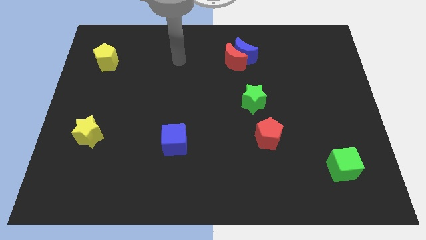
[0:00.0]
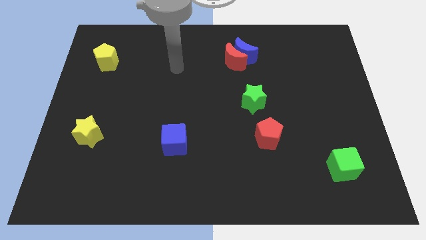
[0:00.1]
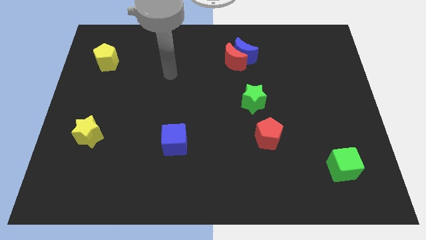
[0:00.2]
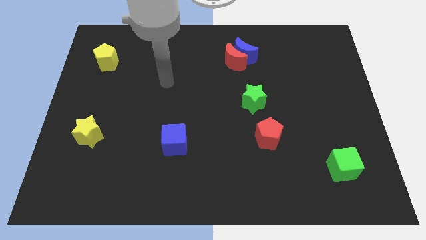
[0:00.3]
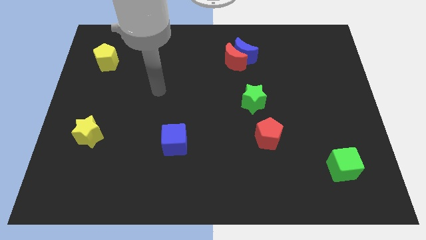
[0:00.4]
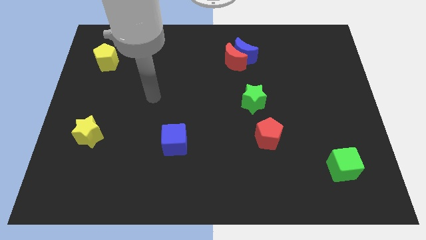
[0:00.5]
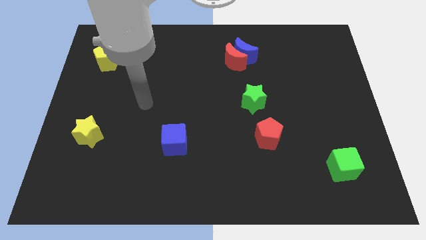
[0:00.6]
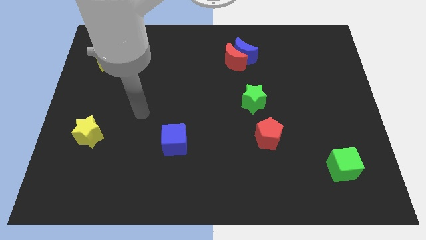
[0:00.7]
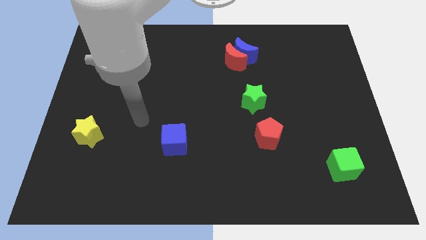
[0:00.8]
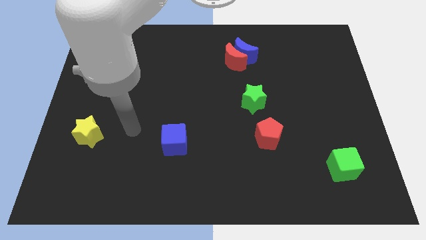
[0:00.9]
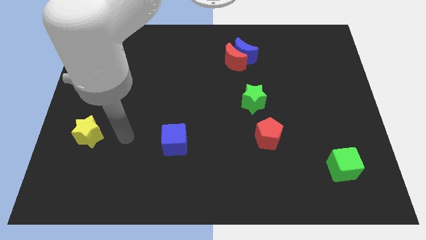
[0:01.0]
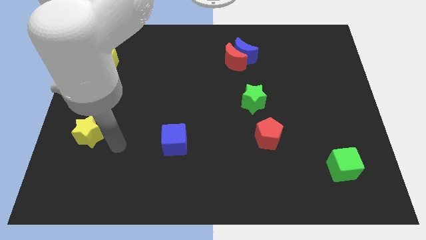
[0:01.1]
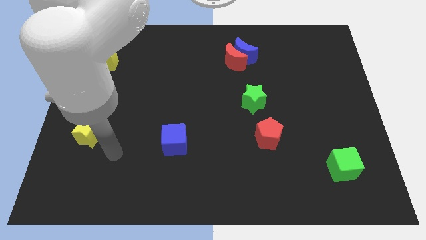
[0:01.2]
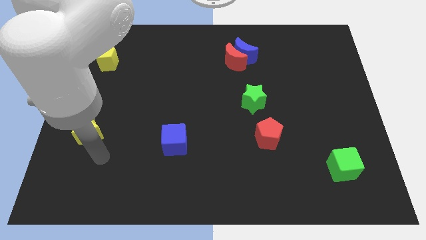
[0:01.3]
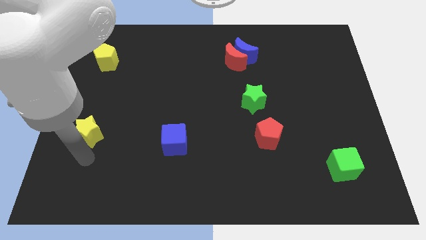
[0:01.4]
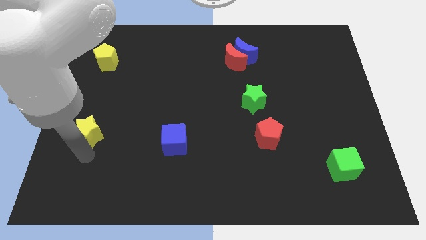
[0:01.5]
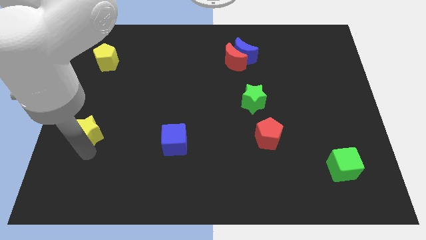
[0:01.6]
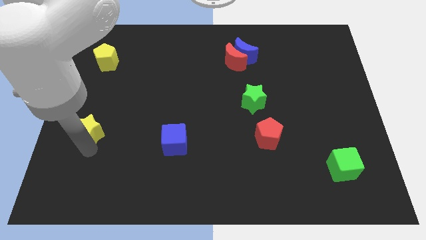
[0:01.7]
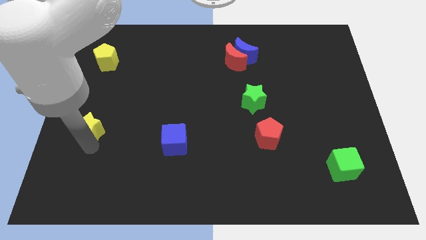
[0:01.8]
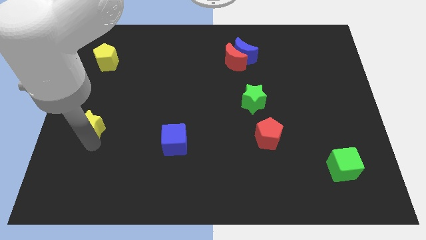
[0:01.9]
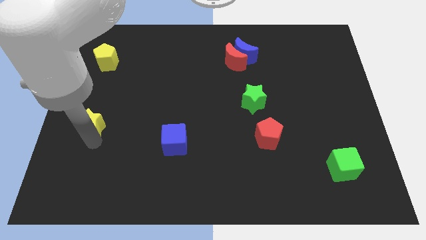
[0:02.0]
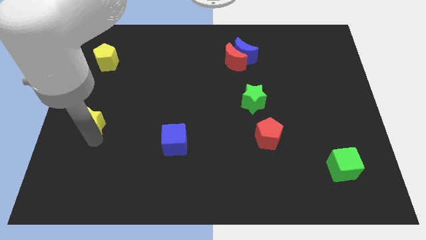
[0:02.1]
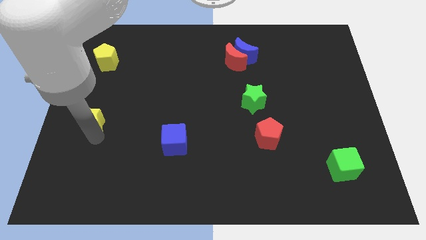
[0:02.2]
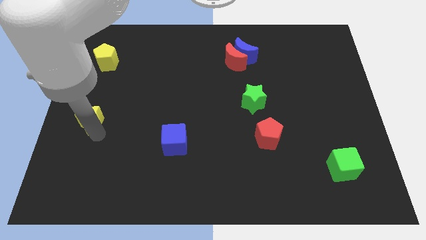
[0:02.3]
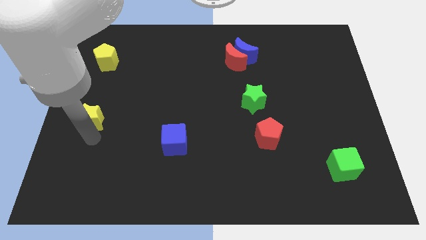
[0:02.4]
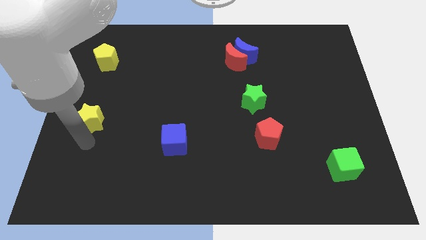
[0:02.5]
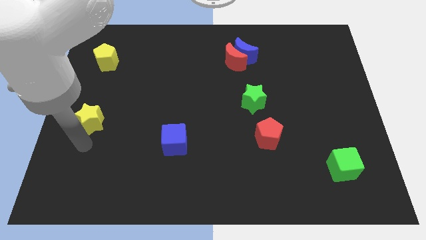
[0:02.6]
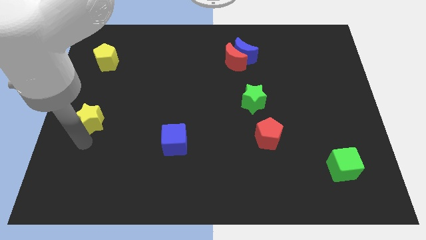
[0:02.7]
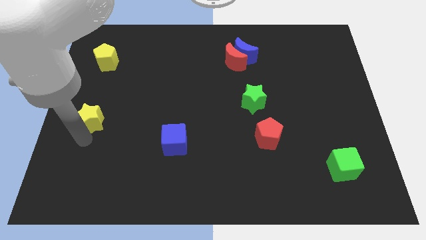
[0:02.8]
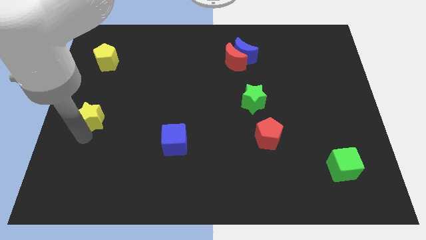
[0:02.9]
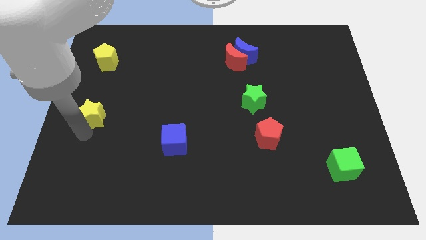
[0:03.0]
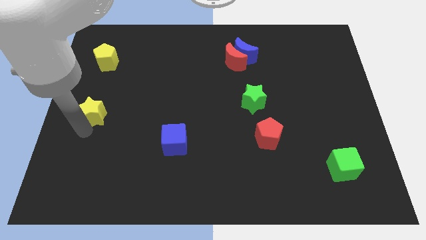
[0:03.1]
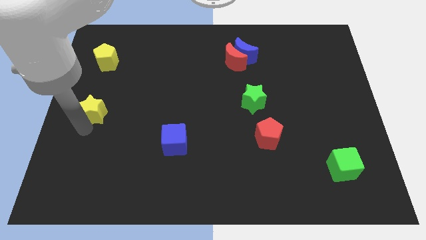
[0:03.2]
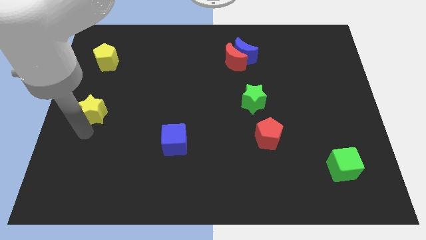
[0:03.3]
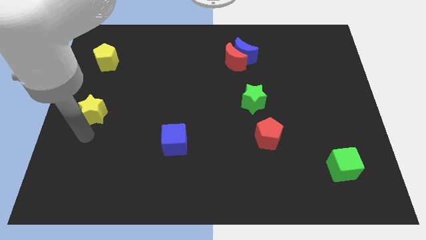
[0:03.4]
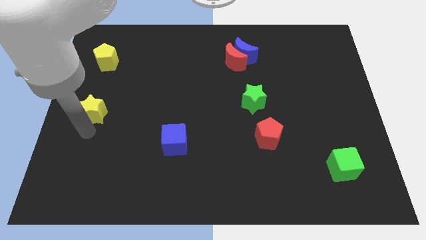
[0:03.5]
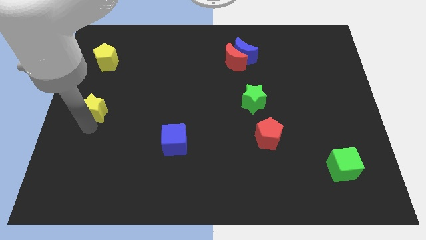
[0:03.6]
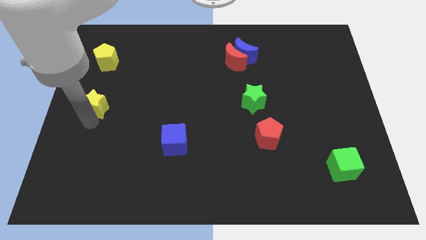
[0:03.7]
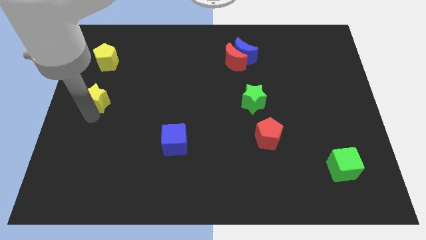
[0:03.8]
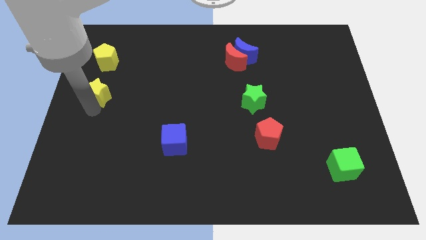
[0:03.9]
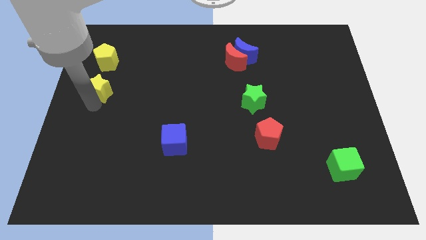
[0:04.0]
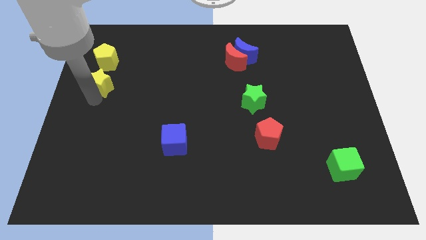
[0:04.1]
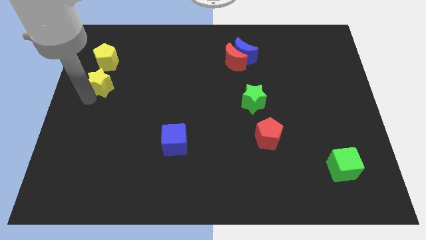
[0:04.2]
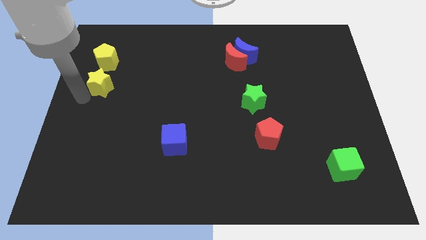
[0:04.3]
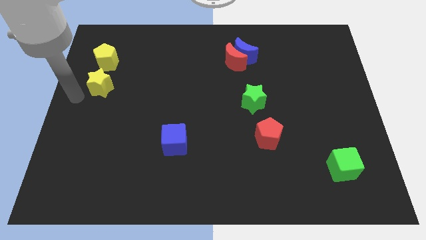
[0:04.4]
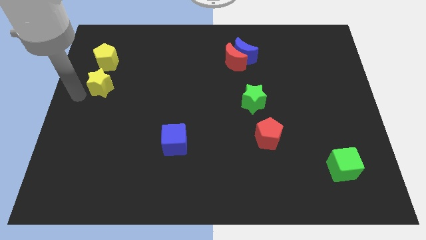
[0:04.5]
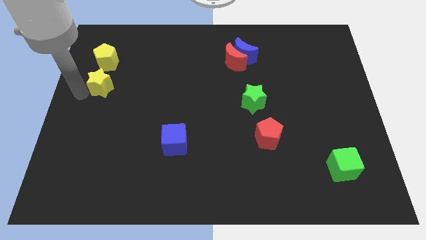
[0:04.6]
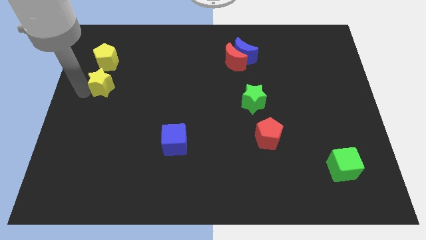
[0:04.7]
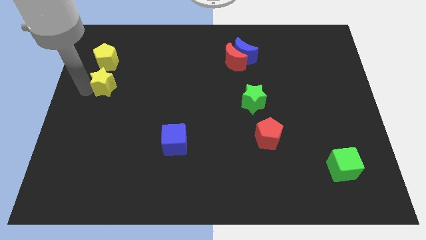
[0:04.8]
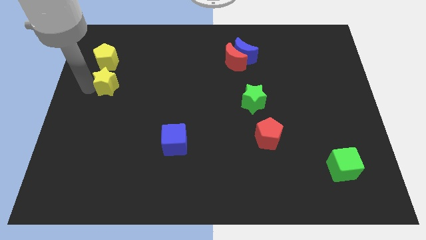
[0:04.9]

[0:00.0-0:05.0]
move the yellow star diagonally down and to the right of the yellow pentagon

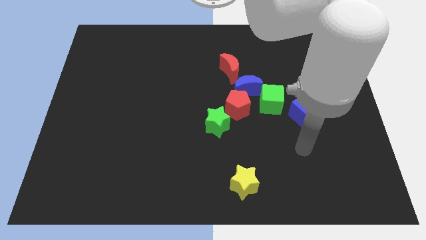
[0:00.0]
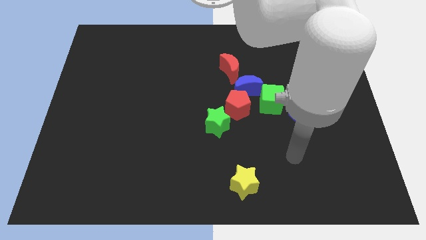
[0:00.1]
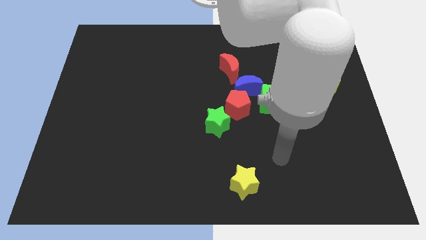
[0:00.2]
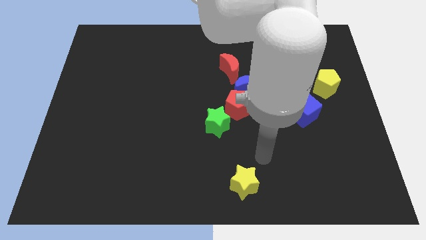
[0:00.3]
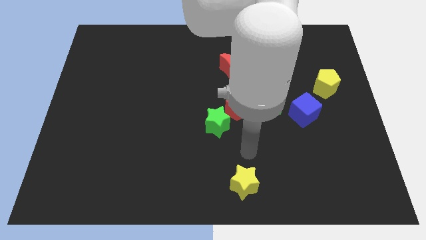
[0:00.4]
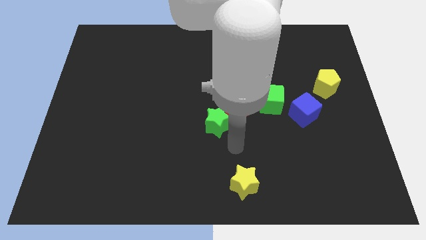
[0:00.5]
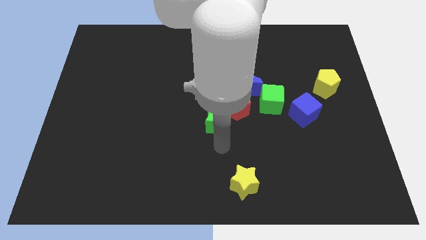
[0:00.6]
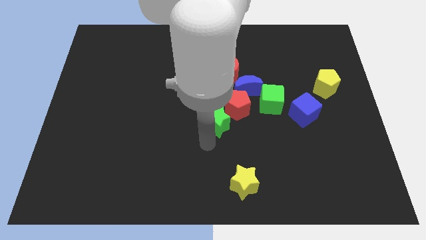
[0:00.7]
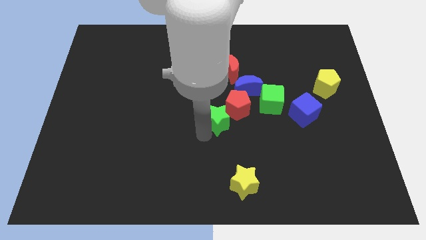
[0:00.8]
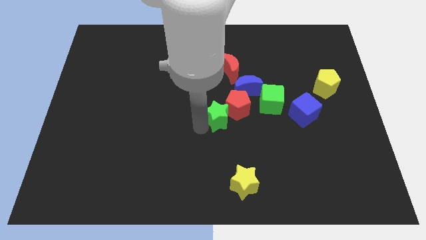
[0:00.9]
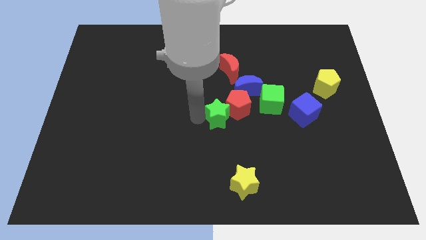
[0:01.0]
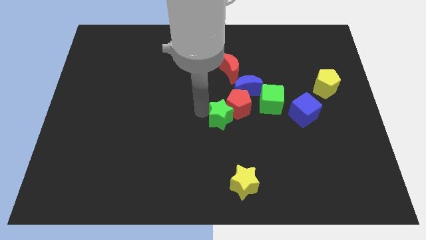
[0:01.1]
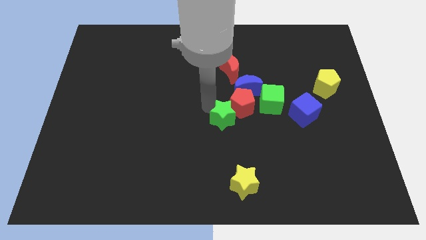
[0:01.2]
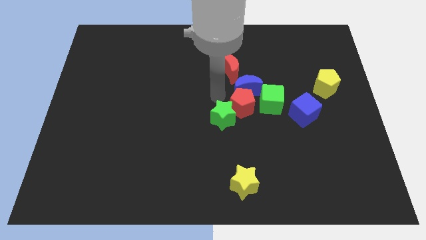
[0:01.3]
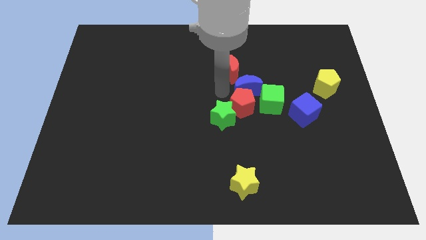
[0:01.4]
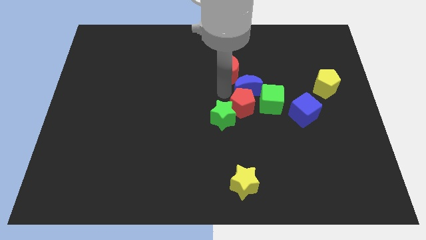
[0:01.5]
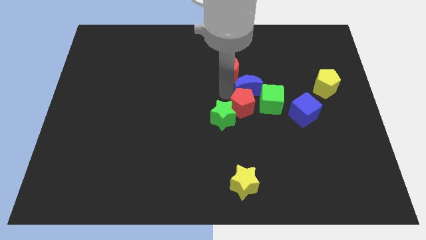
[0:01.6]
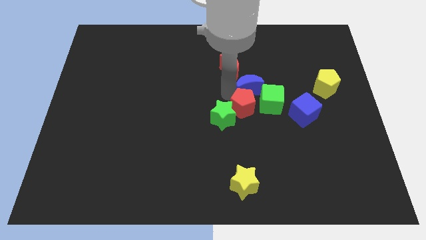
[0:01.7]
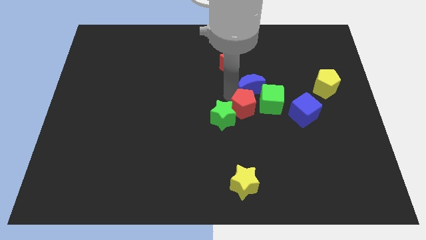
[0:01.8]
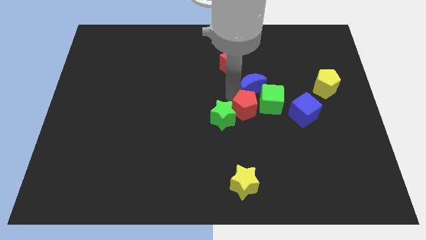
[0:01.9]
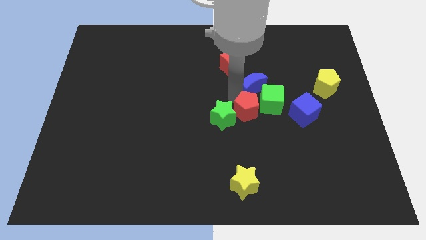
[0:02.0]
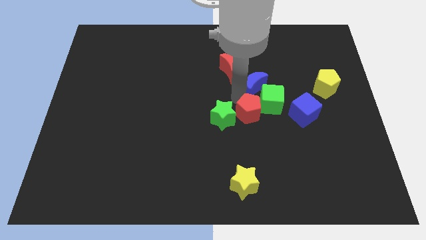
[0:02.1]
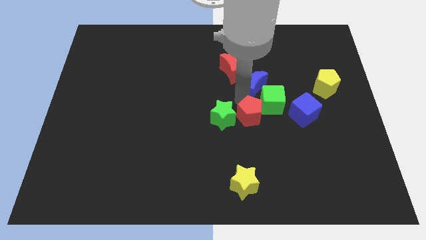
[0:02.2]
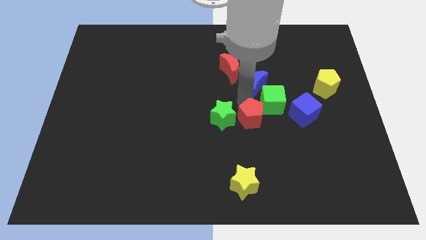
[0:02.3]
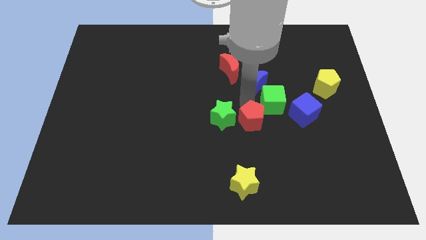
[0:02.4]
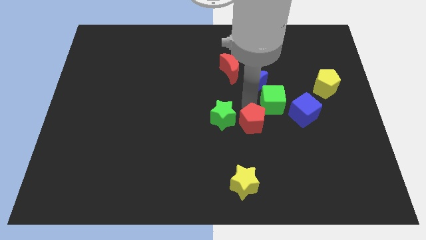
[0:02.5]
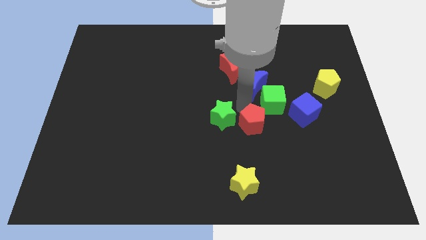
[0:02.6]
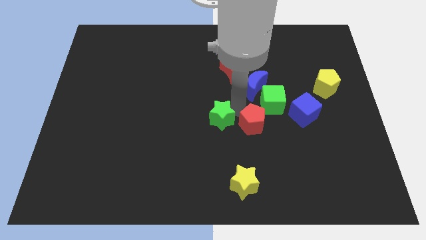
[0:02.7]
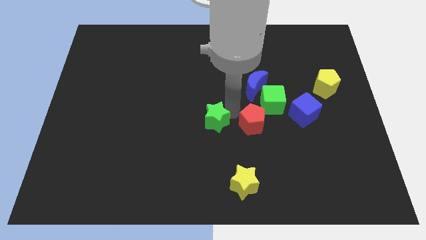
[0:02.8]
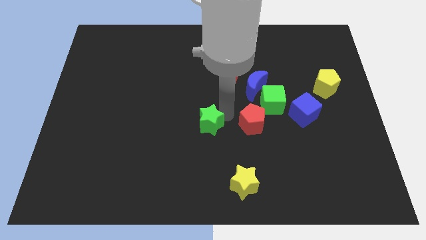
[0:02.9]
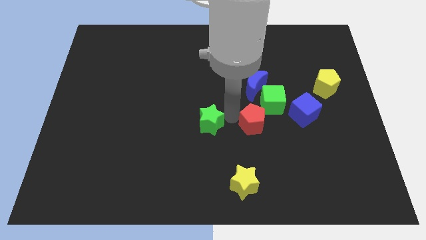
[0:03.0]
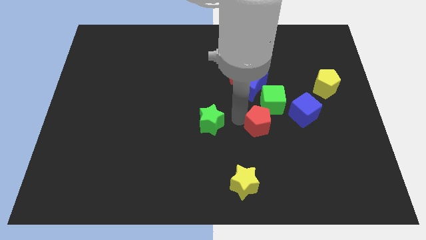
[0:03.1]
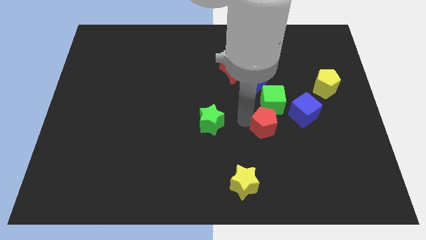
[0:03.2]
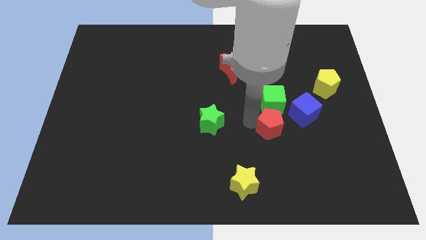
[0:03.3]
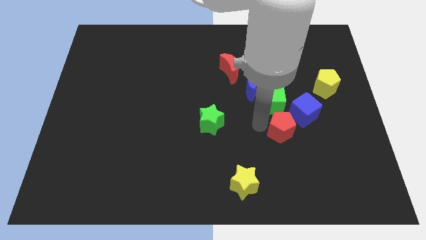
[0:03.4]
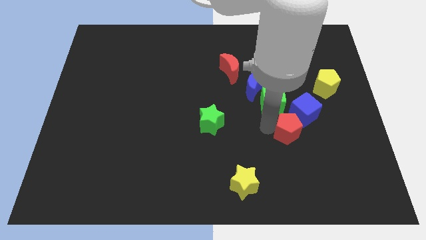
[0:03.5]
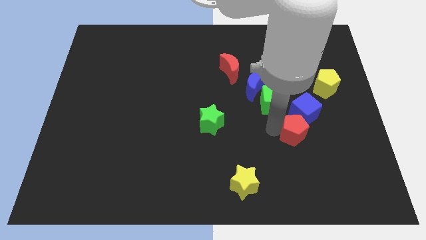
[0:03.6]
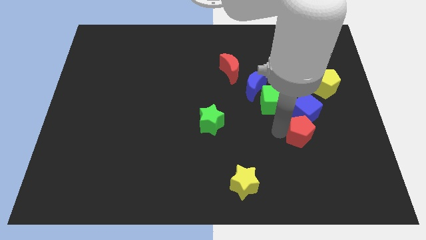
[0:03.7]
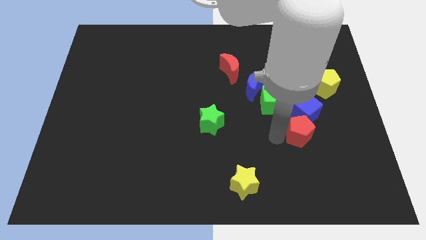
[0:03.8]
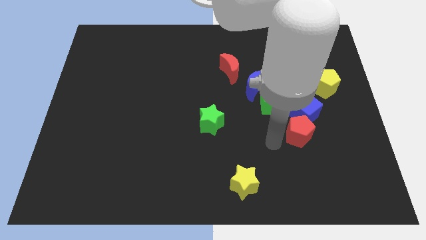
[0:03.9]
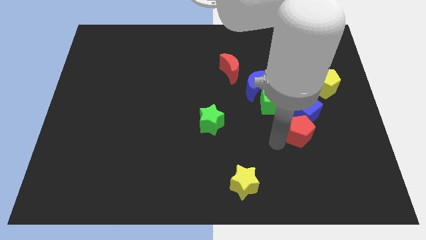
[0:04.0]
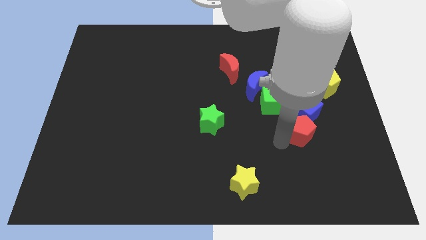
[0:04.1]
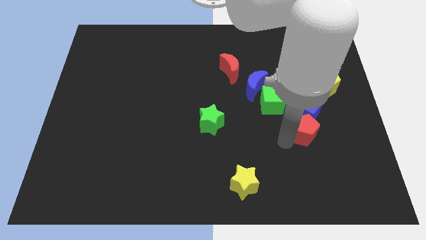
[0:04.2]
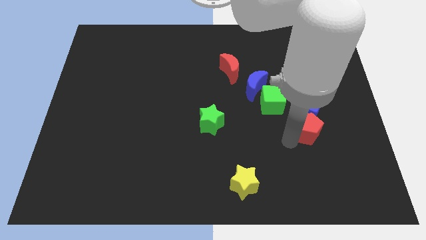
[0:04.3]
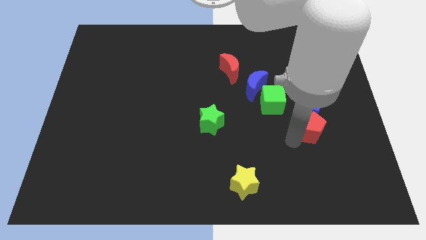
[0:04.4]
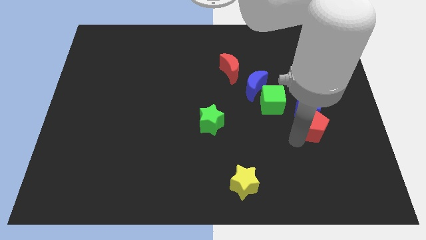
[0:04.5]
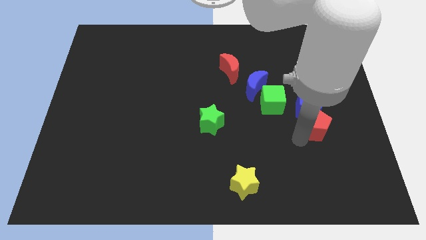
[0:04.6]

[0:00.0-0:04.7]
move the red pentagon to the bottom of the yellow pentagon
